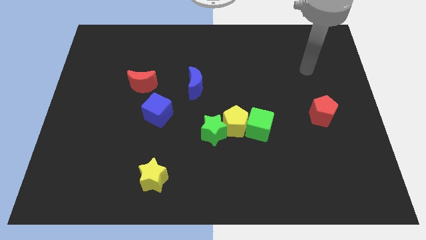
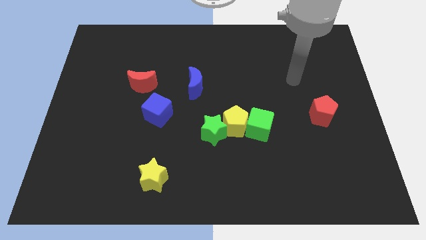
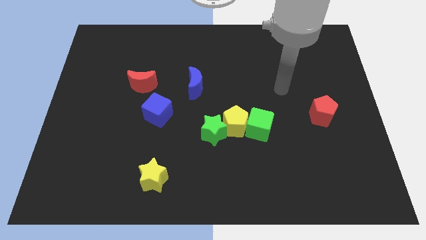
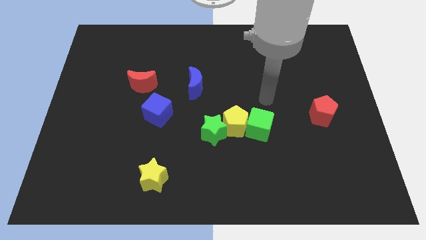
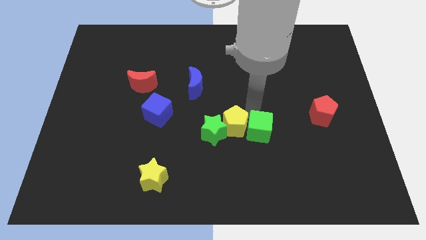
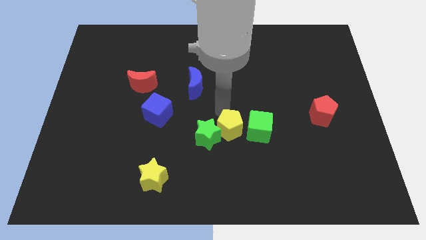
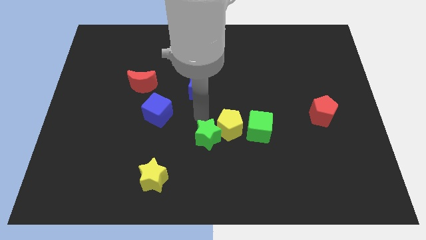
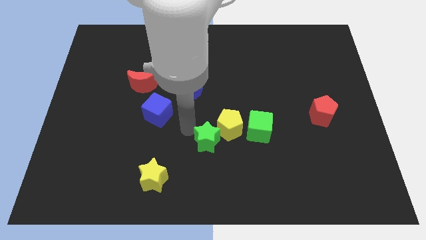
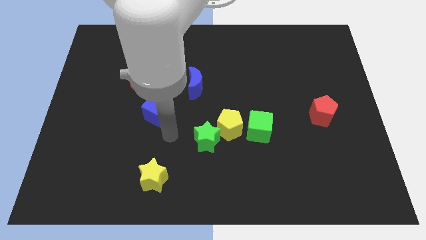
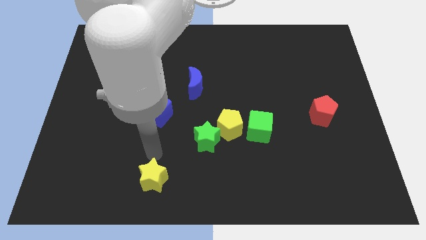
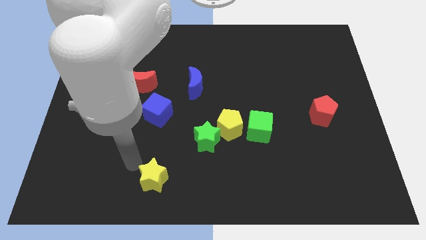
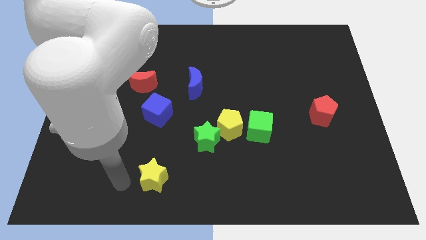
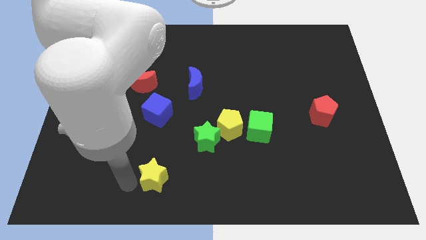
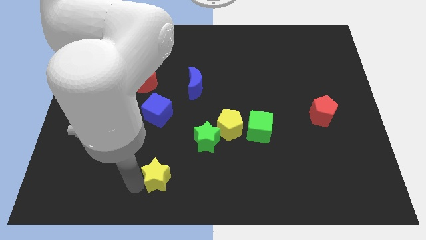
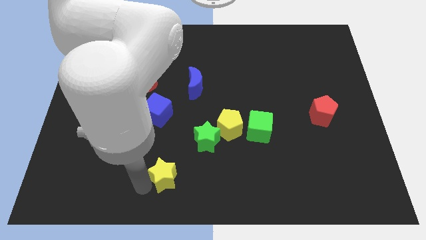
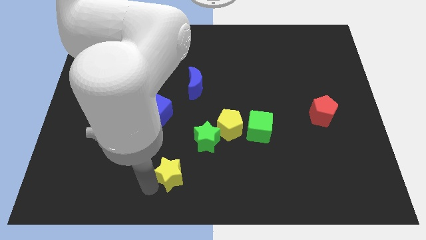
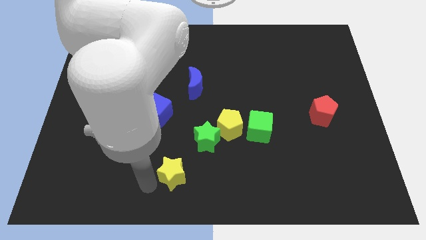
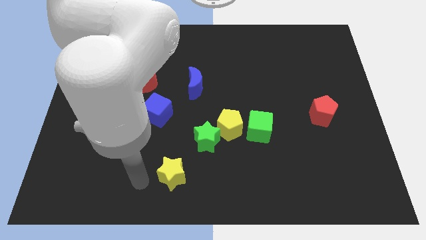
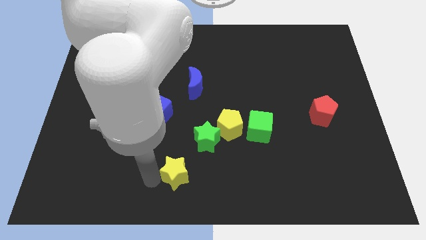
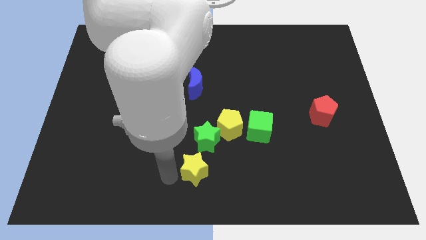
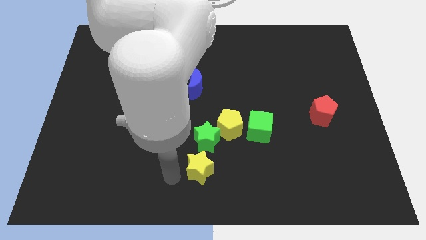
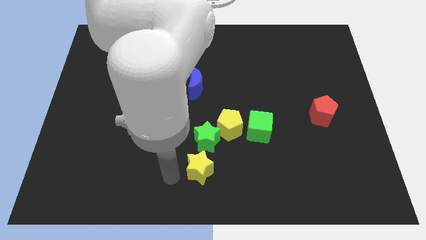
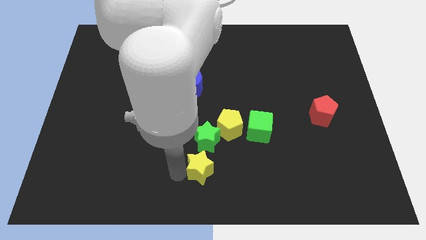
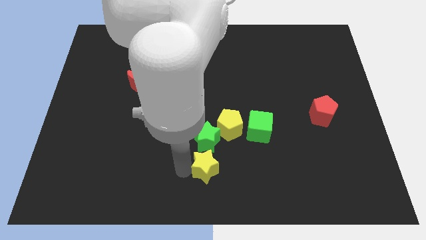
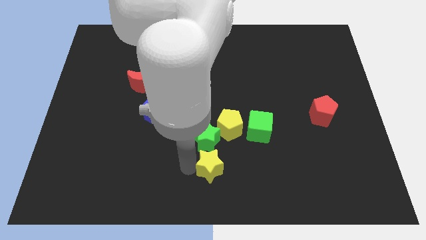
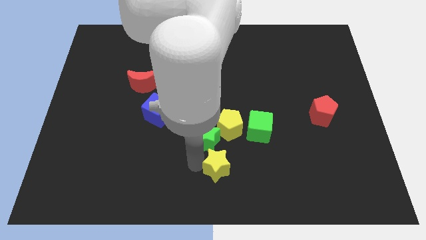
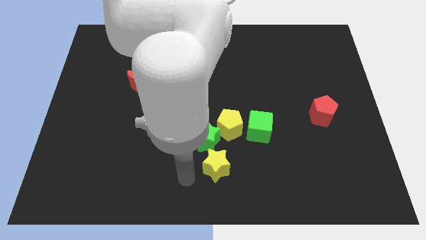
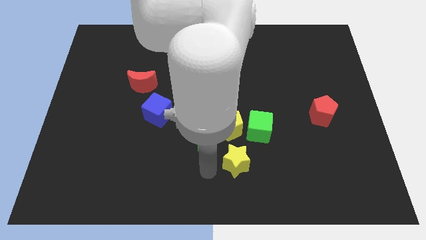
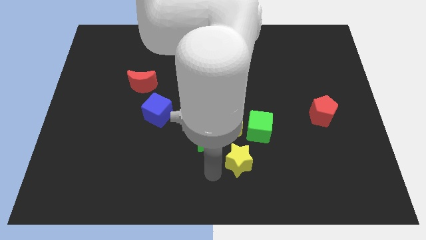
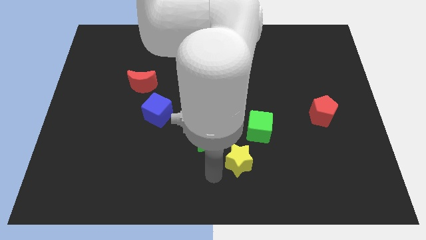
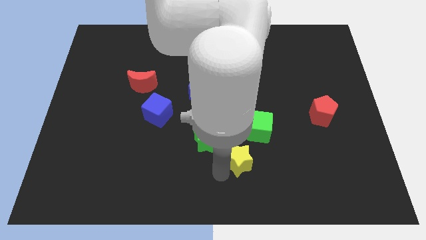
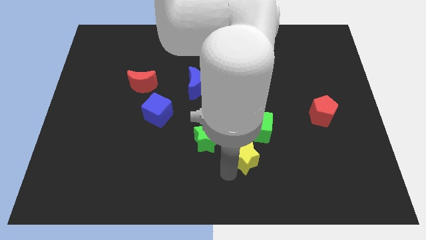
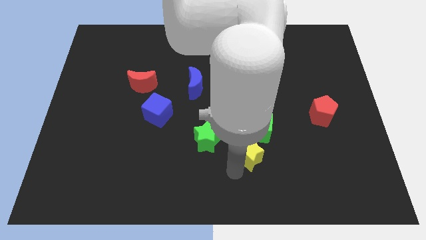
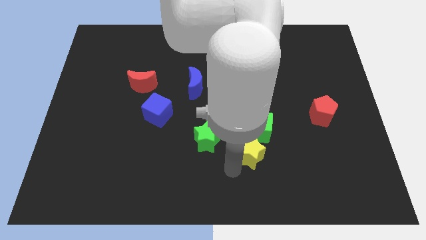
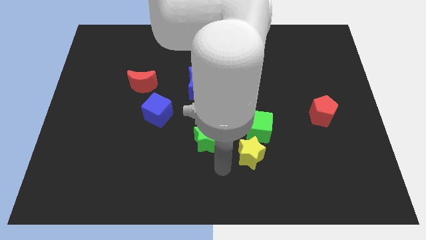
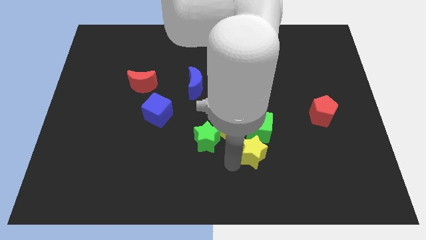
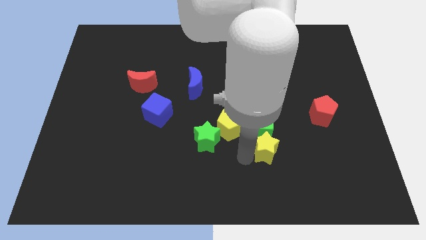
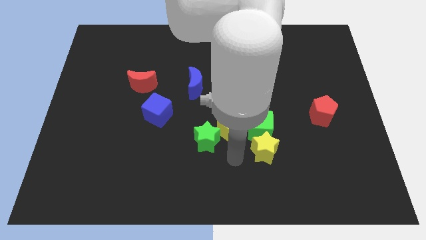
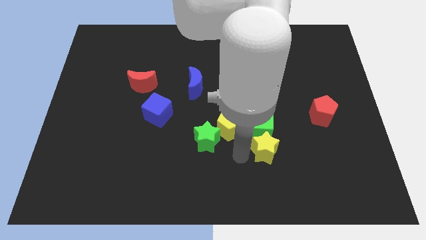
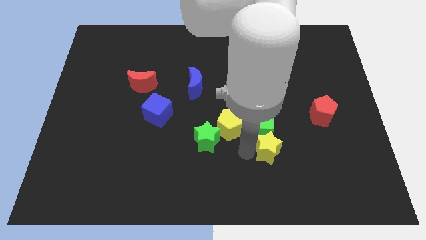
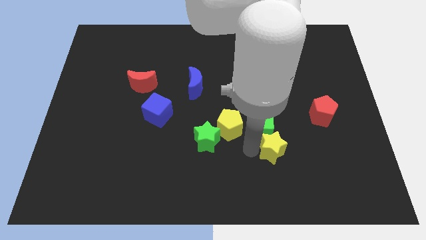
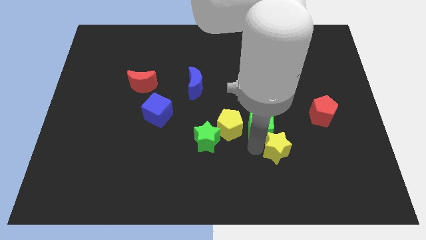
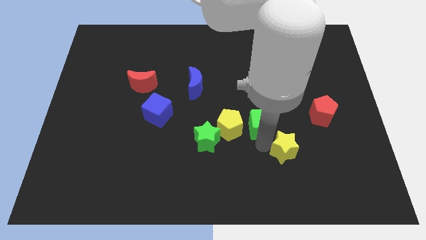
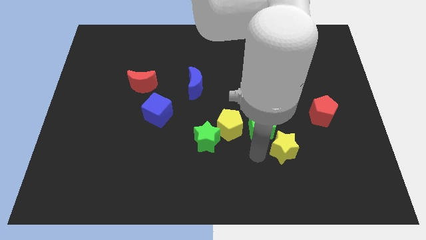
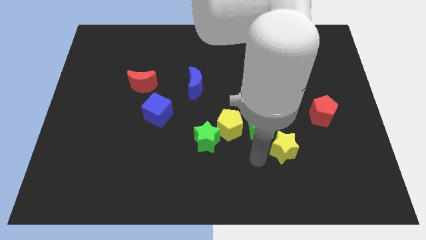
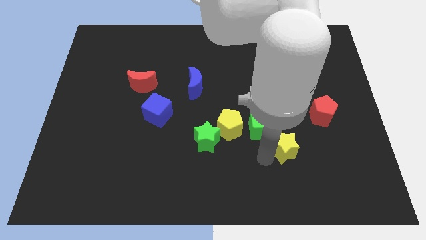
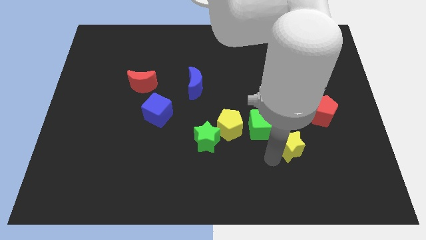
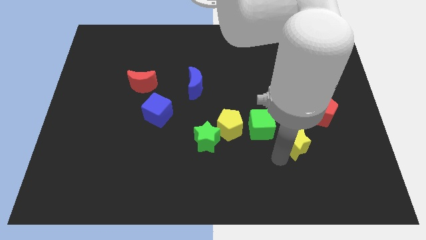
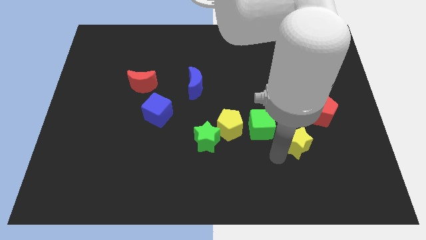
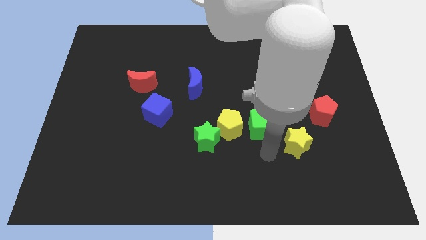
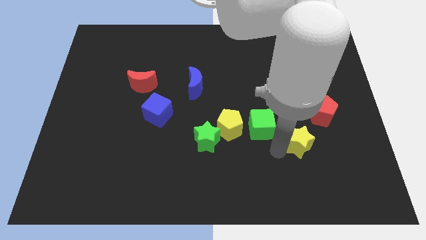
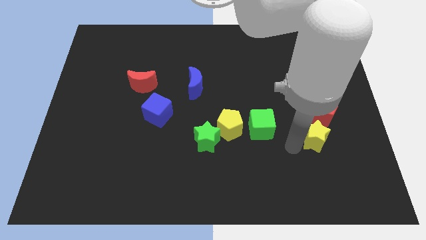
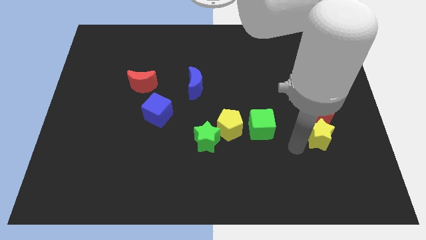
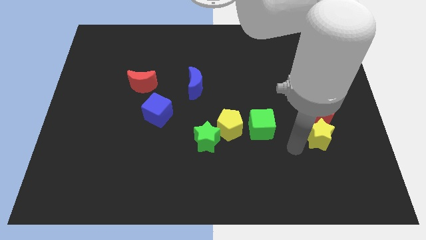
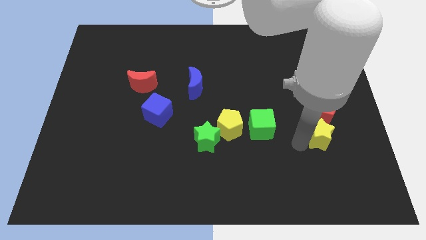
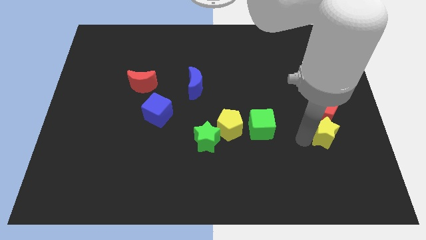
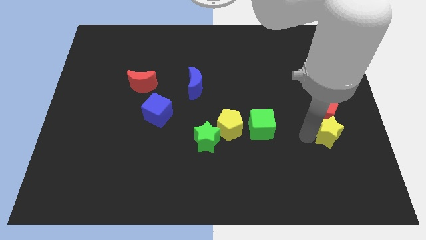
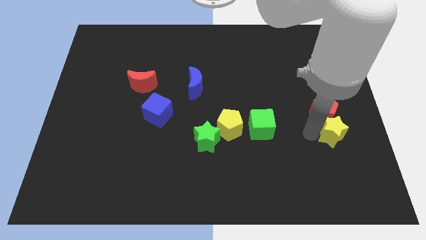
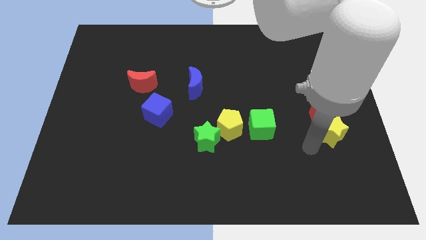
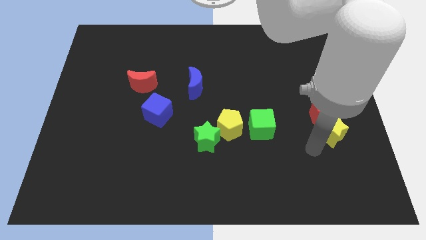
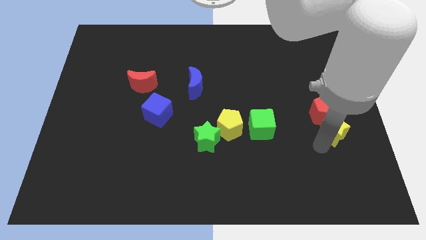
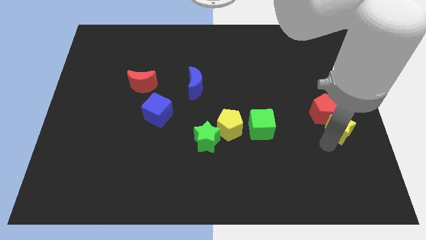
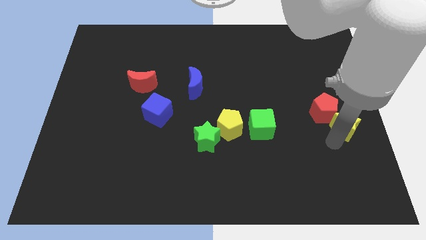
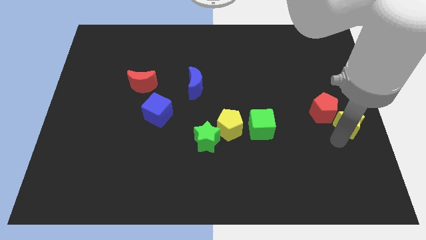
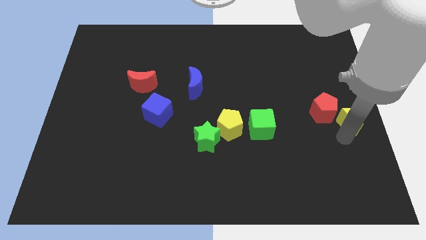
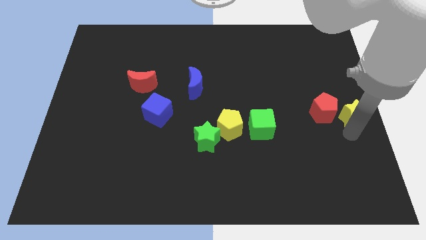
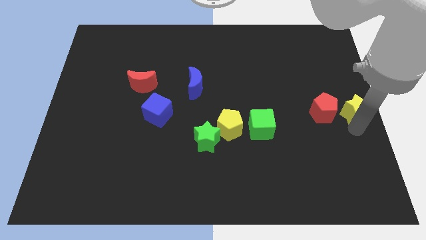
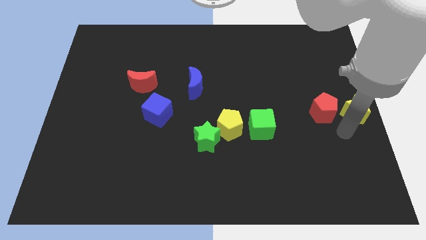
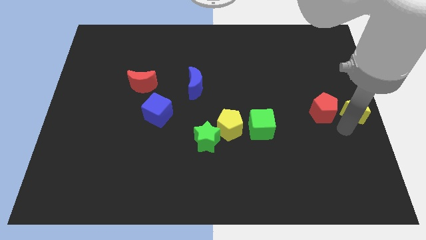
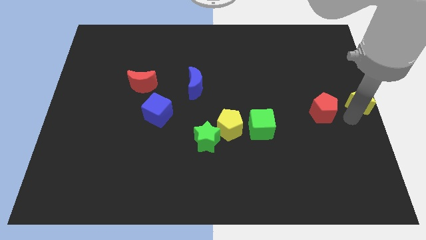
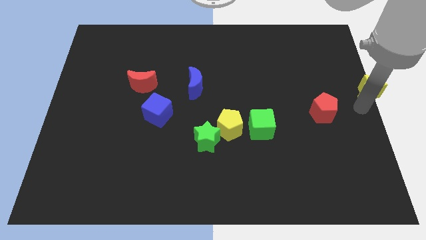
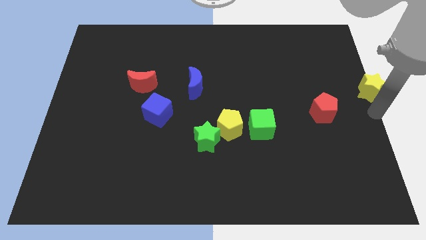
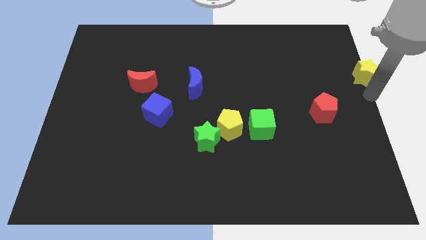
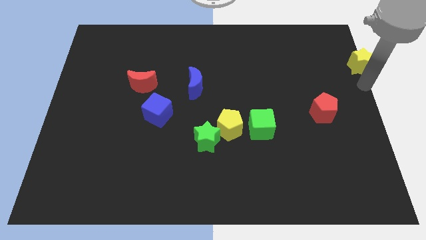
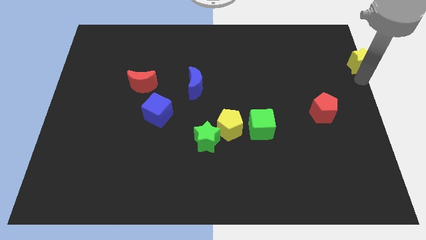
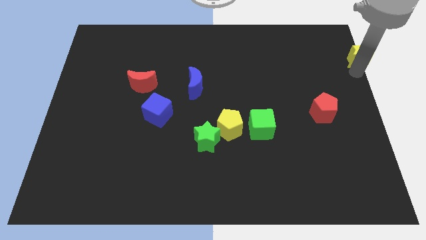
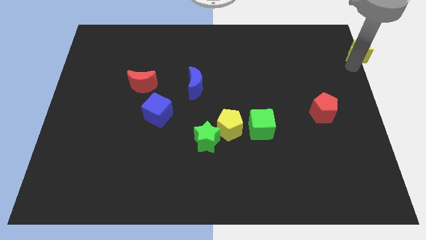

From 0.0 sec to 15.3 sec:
move the yellow star to the top right of the board
